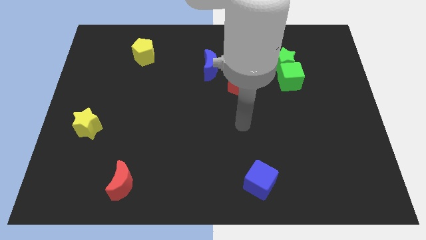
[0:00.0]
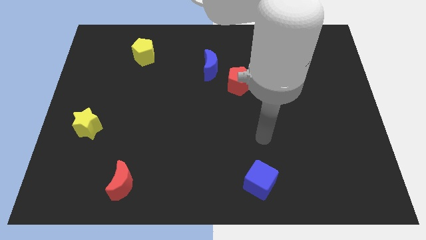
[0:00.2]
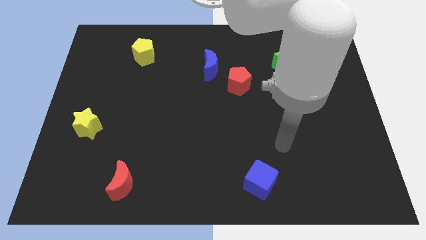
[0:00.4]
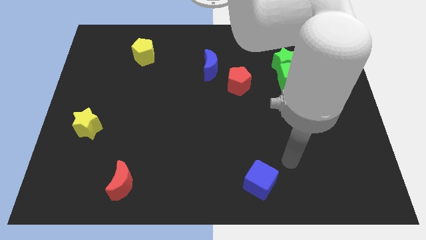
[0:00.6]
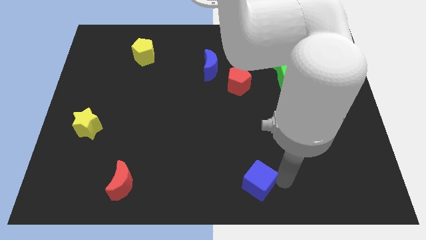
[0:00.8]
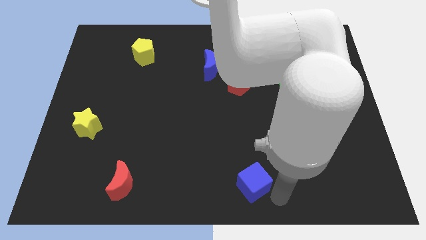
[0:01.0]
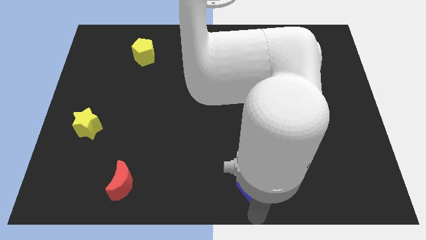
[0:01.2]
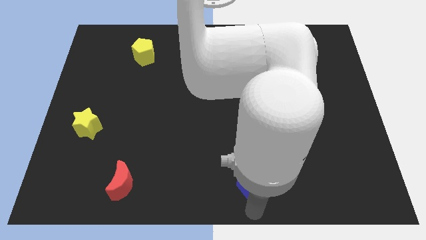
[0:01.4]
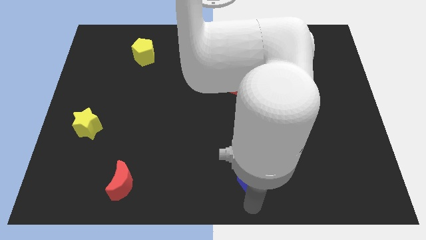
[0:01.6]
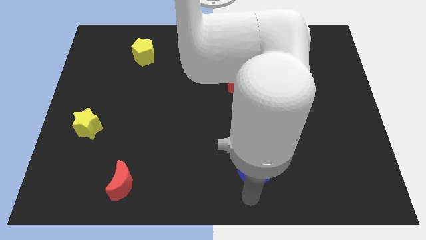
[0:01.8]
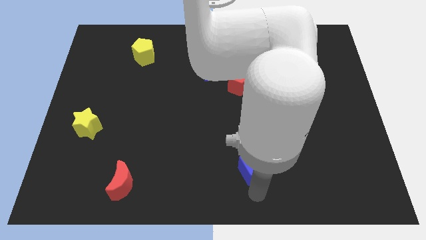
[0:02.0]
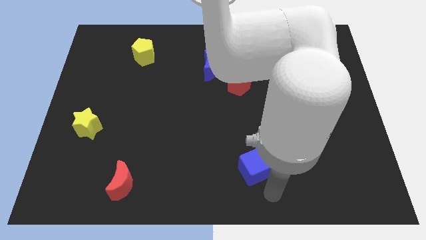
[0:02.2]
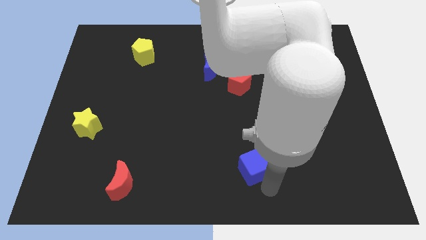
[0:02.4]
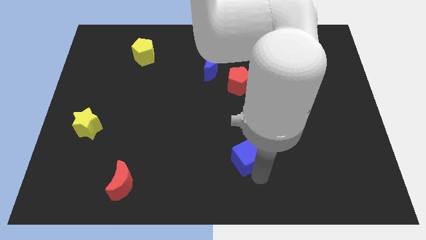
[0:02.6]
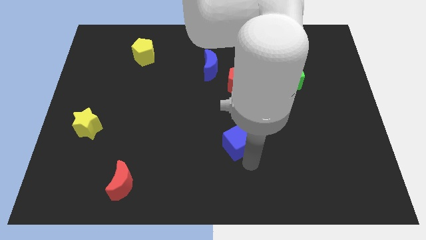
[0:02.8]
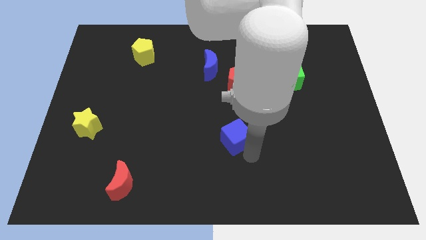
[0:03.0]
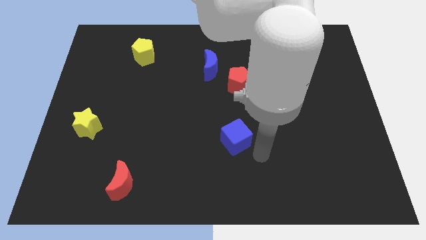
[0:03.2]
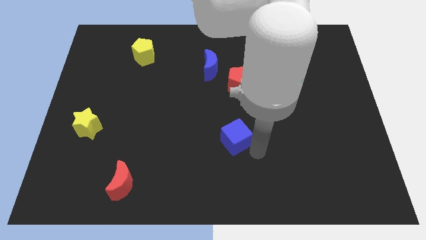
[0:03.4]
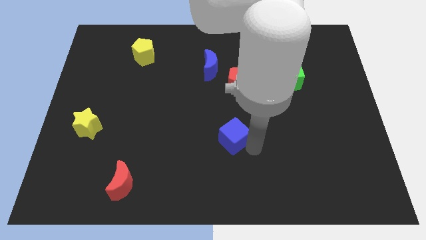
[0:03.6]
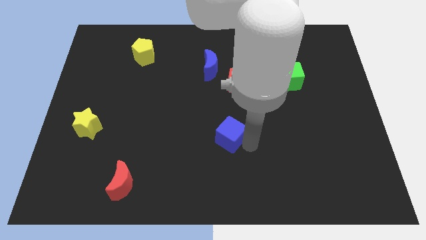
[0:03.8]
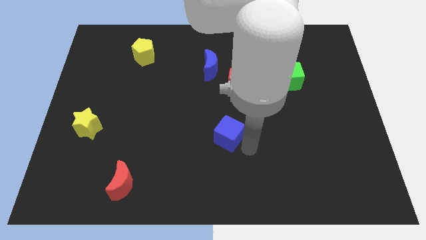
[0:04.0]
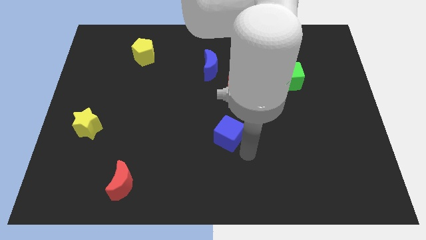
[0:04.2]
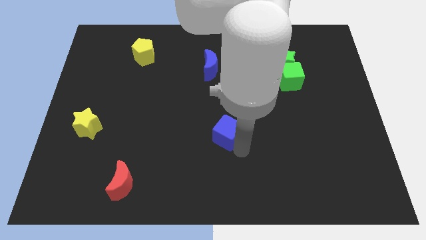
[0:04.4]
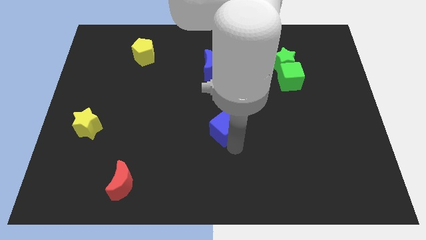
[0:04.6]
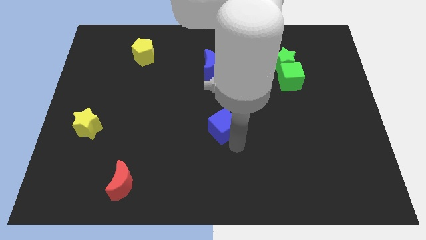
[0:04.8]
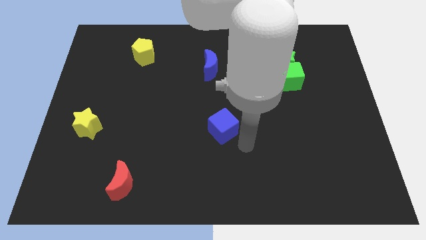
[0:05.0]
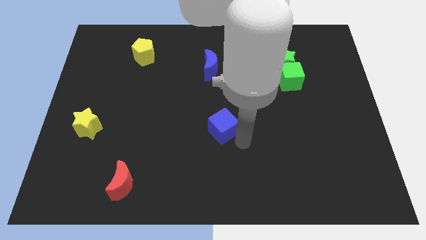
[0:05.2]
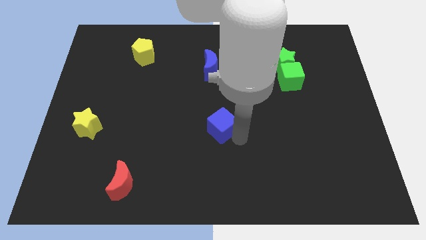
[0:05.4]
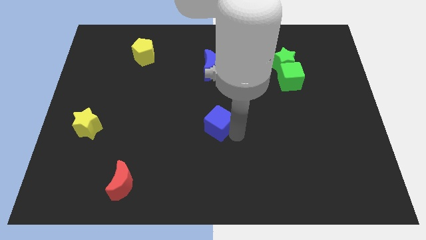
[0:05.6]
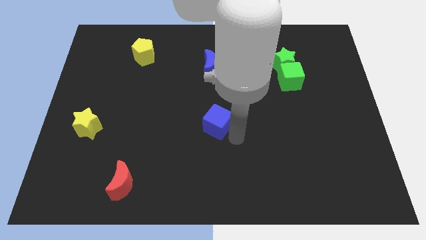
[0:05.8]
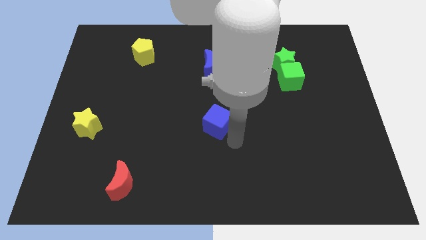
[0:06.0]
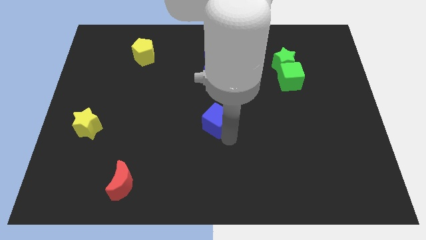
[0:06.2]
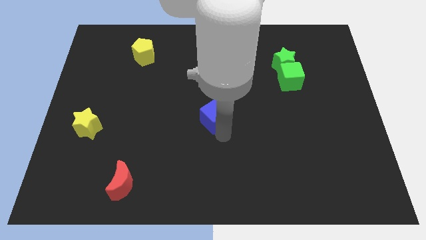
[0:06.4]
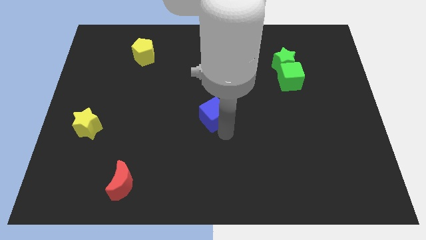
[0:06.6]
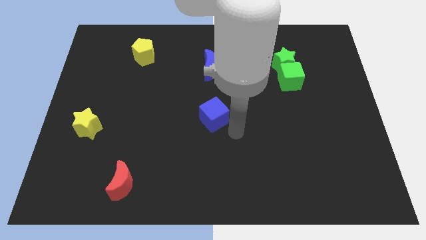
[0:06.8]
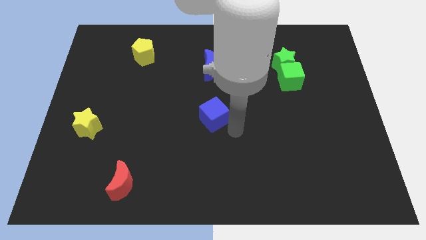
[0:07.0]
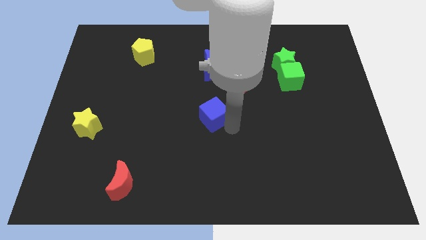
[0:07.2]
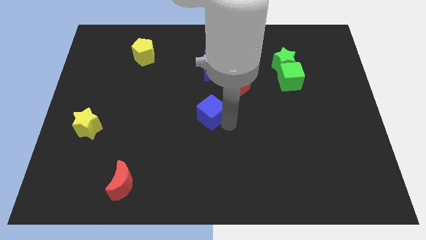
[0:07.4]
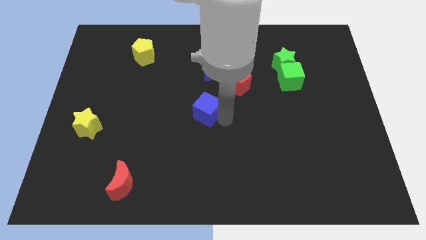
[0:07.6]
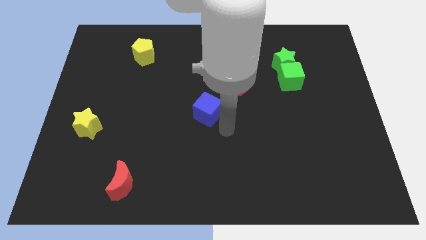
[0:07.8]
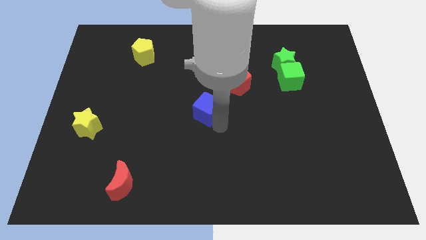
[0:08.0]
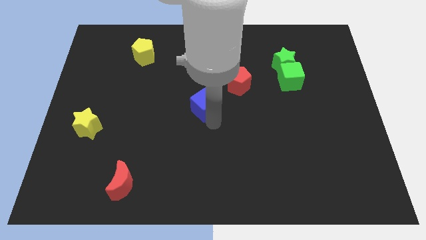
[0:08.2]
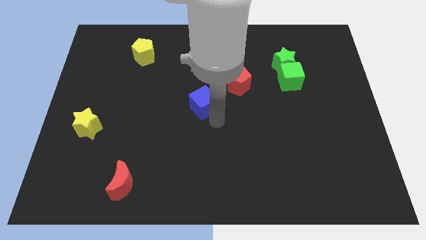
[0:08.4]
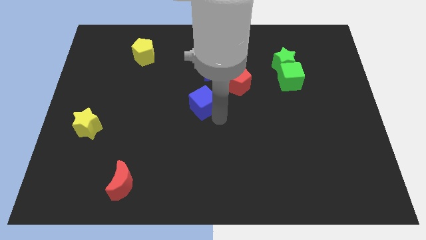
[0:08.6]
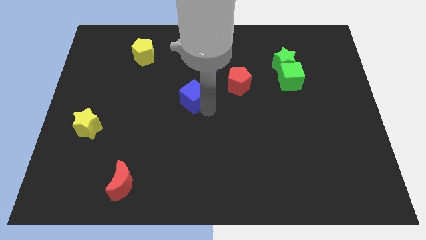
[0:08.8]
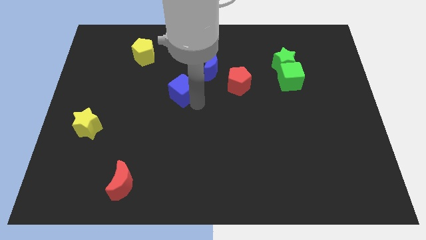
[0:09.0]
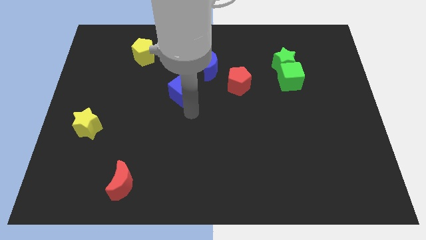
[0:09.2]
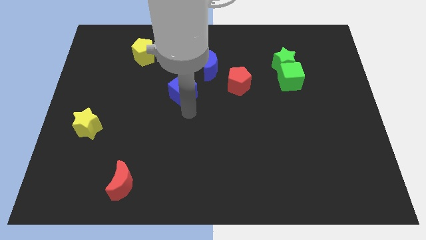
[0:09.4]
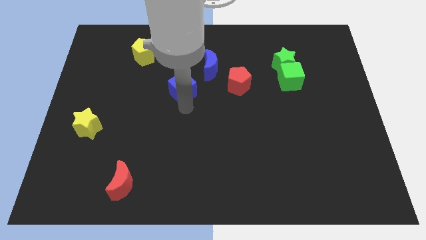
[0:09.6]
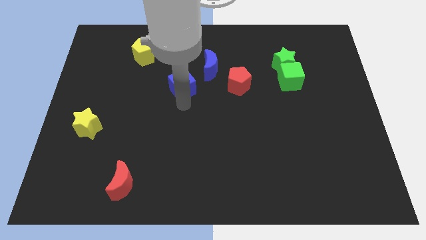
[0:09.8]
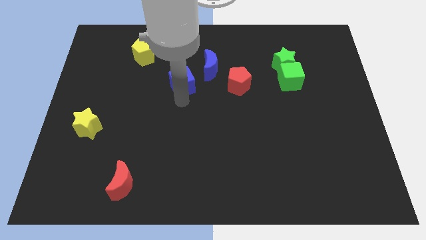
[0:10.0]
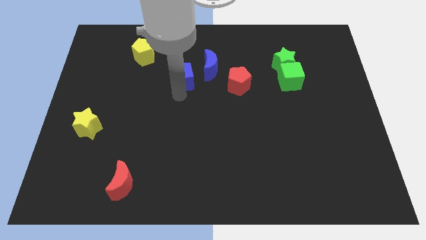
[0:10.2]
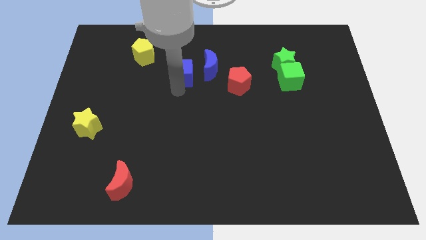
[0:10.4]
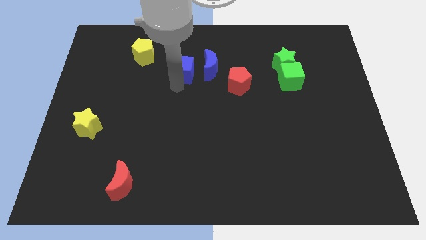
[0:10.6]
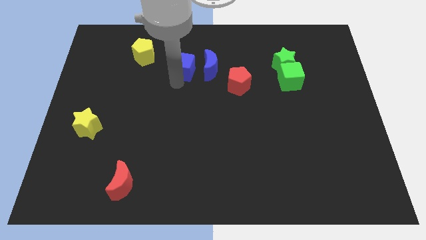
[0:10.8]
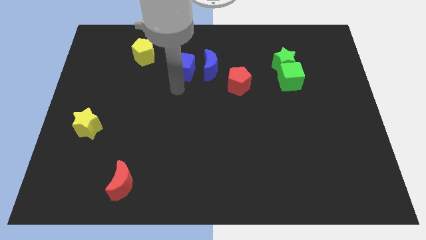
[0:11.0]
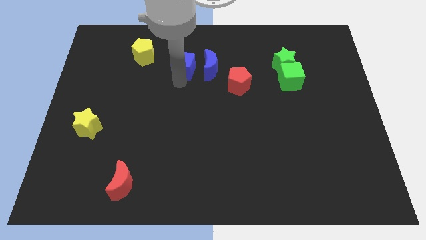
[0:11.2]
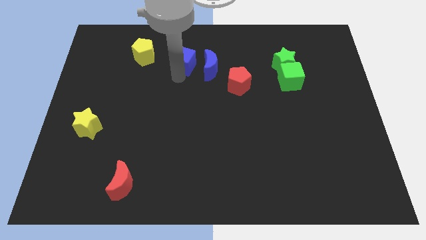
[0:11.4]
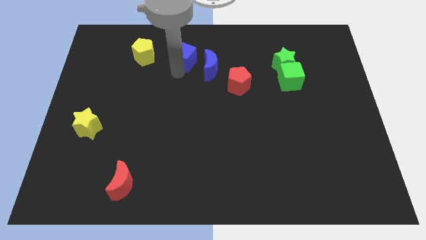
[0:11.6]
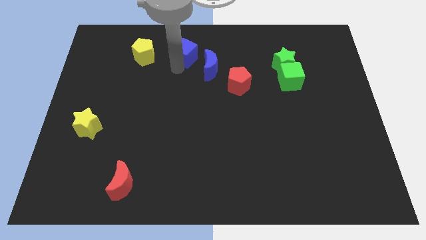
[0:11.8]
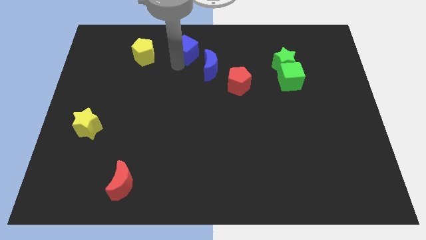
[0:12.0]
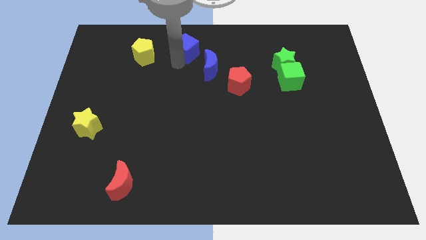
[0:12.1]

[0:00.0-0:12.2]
slide the blue cube to the top

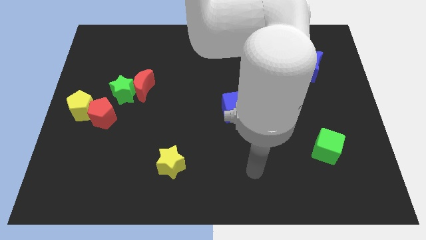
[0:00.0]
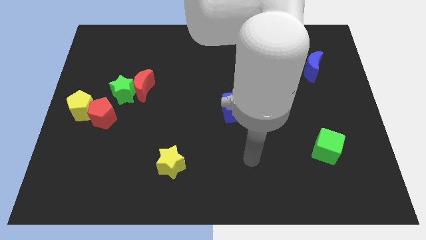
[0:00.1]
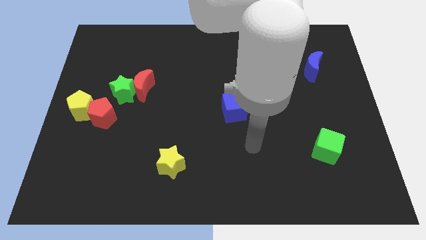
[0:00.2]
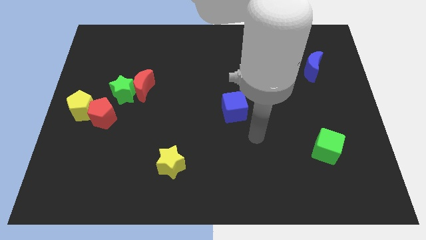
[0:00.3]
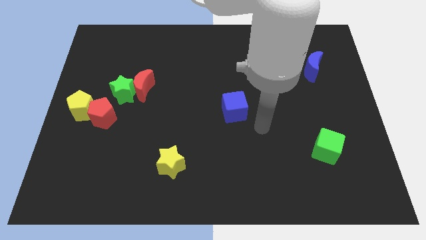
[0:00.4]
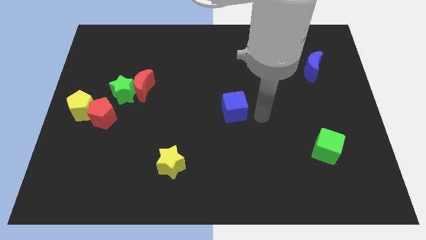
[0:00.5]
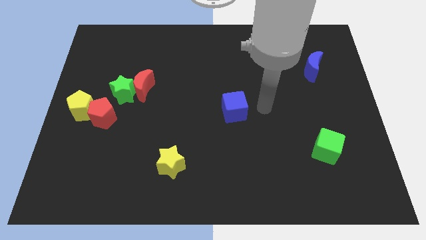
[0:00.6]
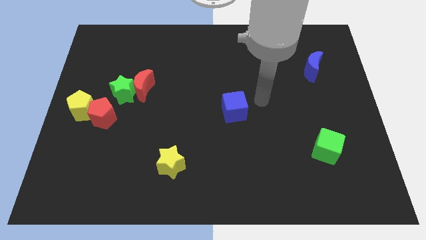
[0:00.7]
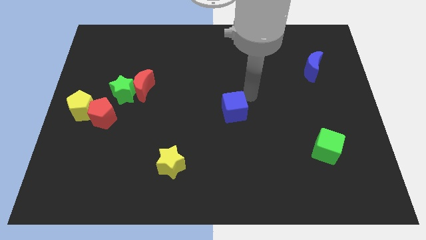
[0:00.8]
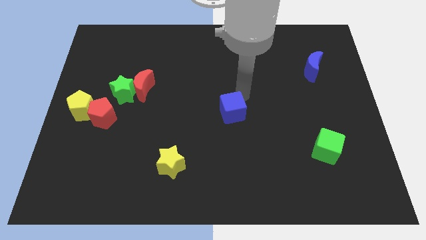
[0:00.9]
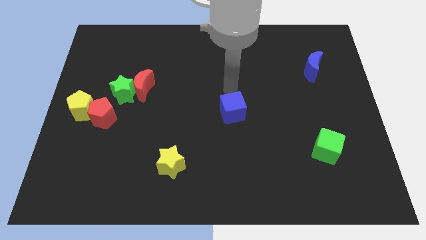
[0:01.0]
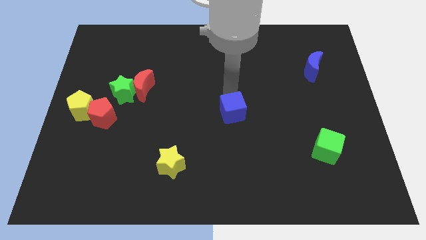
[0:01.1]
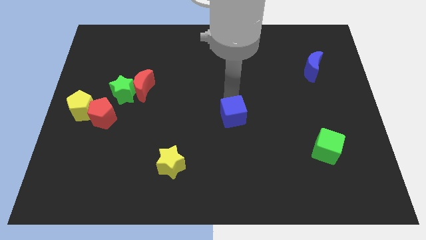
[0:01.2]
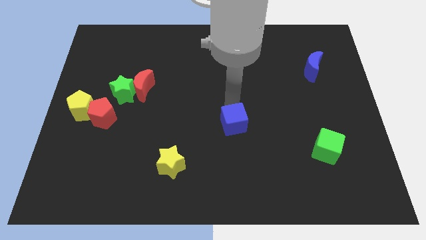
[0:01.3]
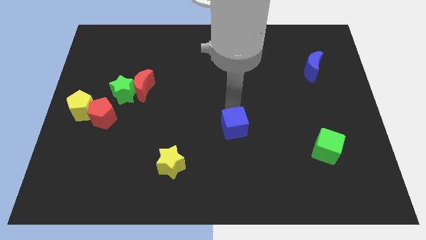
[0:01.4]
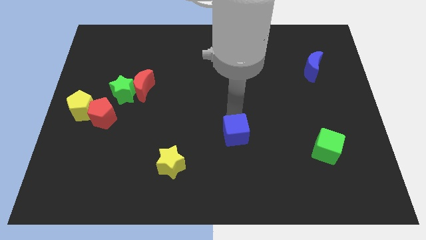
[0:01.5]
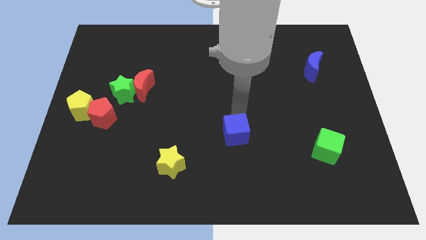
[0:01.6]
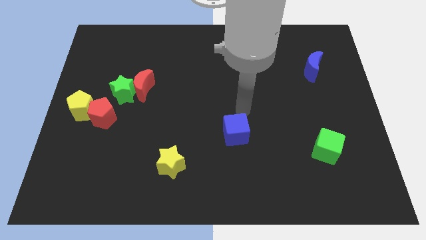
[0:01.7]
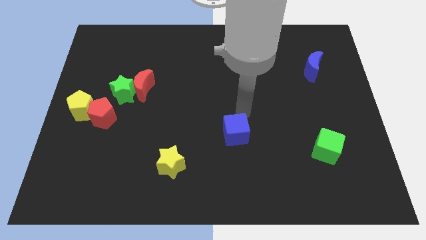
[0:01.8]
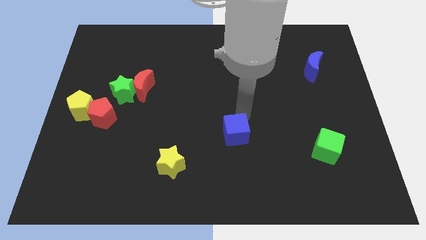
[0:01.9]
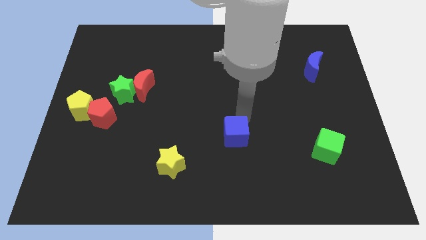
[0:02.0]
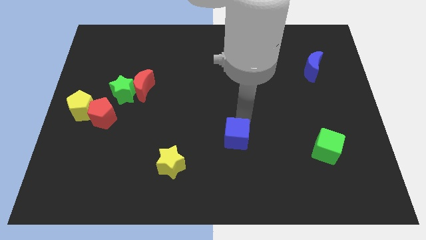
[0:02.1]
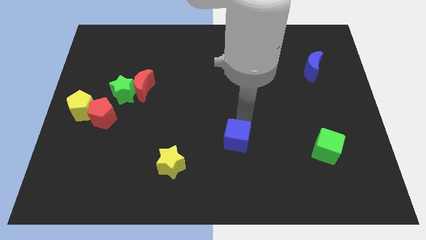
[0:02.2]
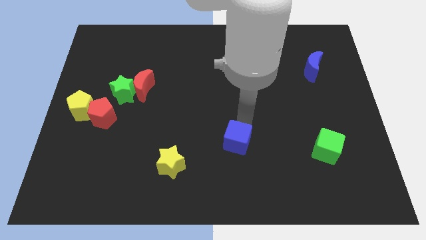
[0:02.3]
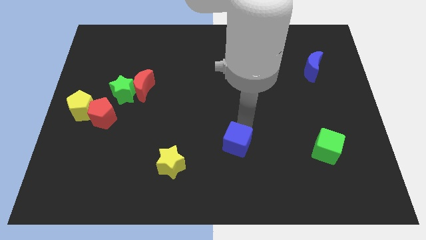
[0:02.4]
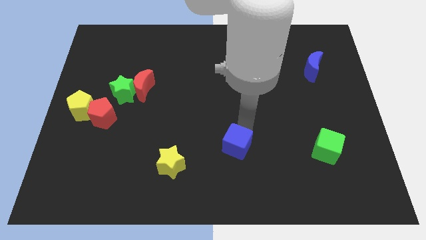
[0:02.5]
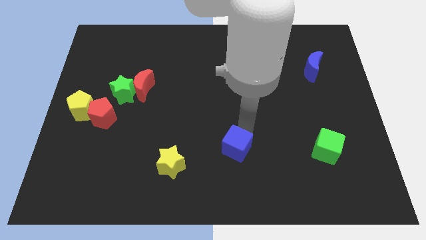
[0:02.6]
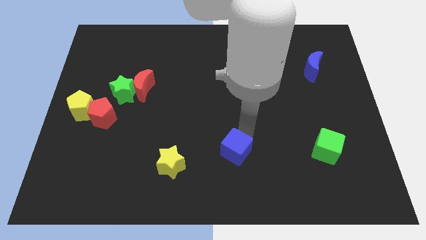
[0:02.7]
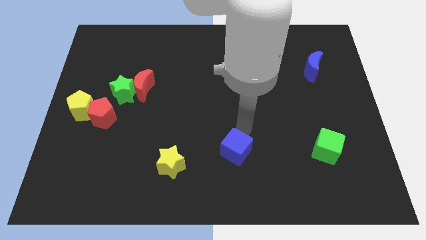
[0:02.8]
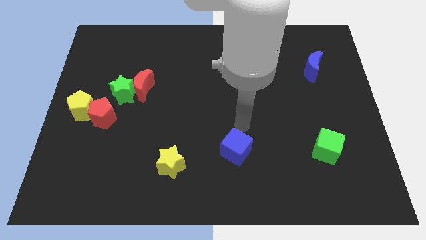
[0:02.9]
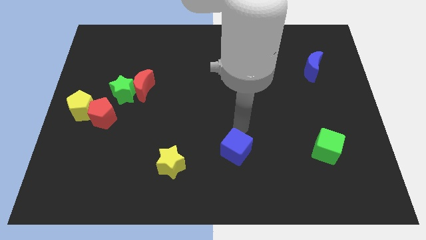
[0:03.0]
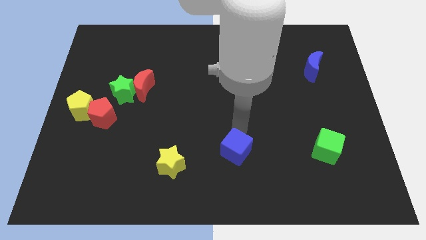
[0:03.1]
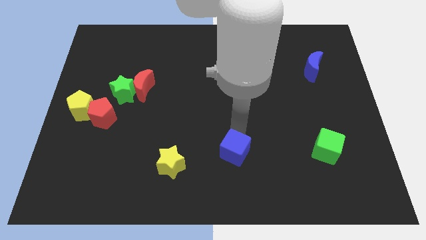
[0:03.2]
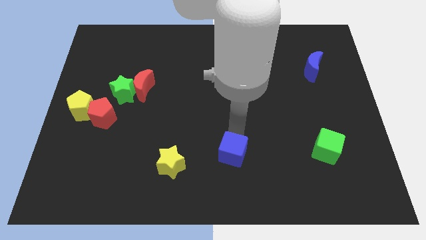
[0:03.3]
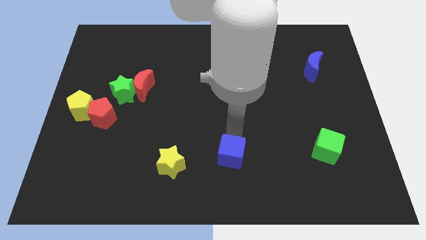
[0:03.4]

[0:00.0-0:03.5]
push the blue cube to the bottom
